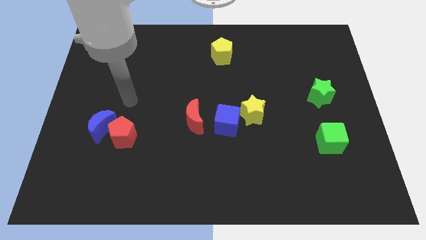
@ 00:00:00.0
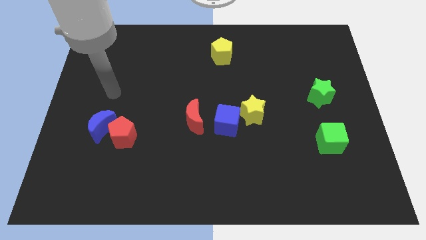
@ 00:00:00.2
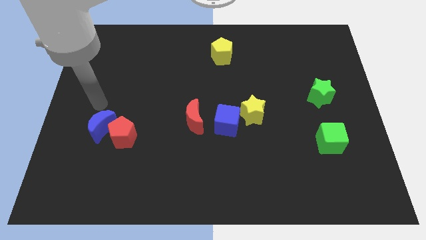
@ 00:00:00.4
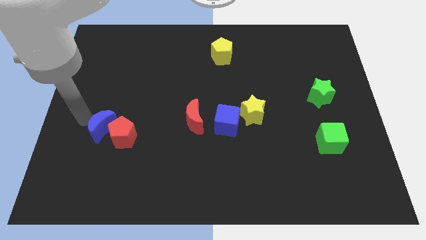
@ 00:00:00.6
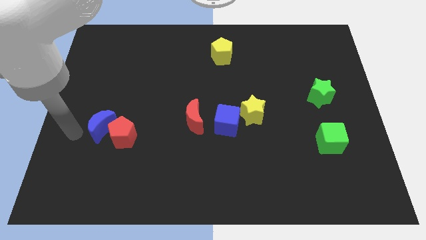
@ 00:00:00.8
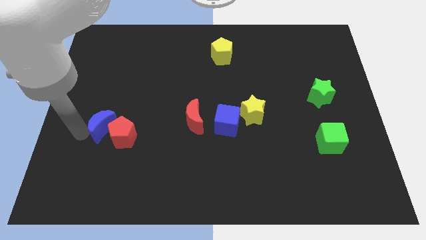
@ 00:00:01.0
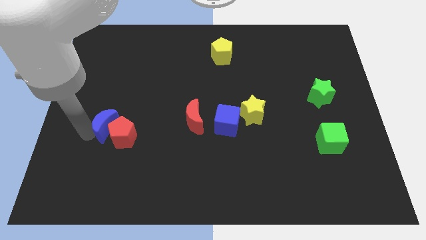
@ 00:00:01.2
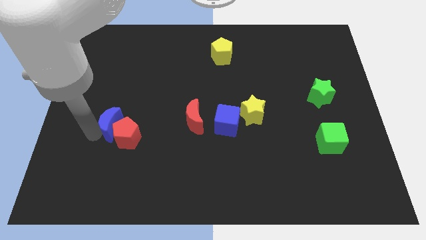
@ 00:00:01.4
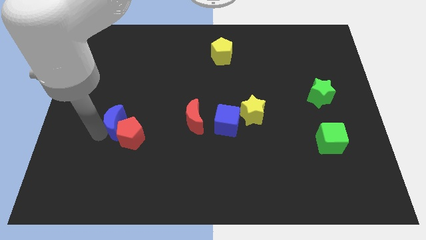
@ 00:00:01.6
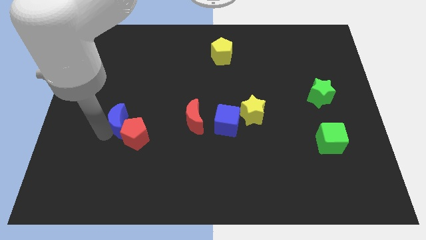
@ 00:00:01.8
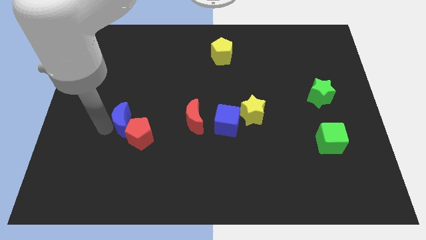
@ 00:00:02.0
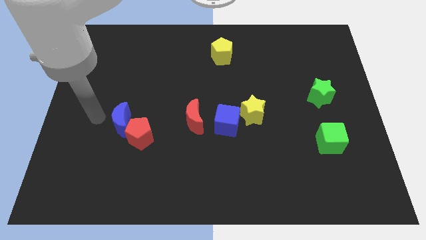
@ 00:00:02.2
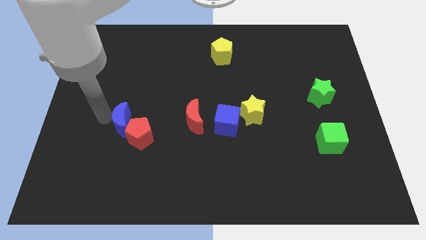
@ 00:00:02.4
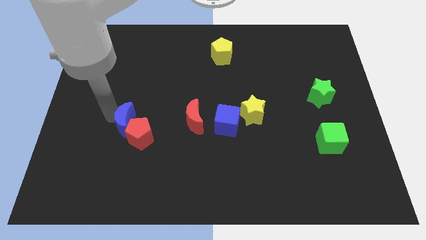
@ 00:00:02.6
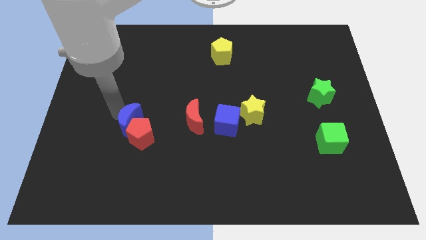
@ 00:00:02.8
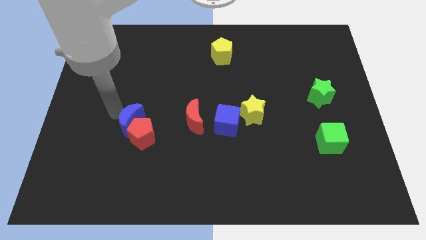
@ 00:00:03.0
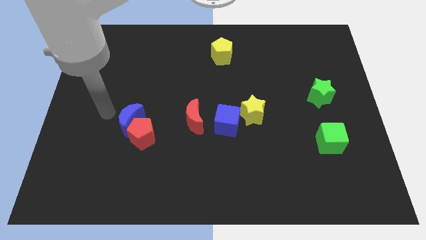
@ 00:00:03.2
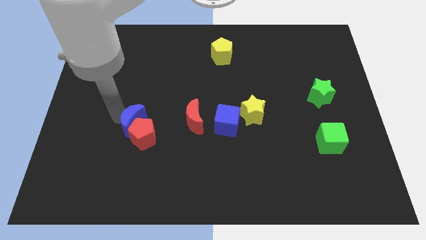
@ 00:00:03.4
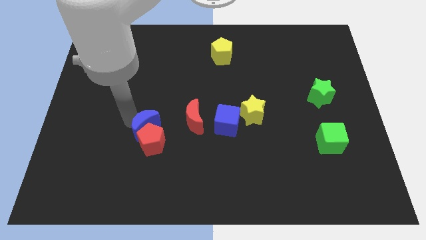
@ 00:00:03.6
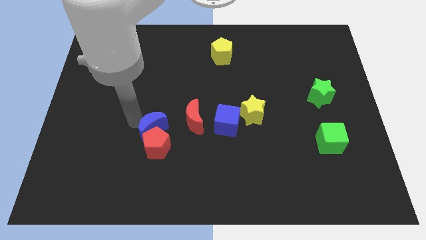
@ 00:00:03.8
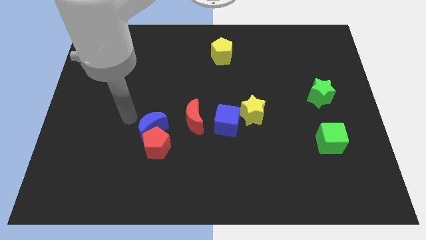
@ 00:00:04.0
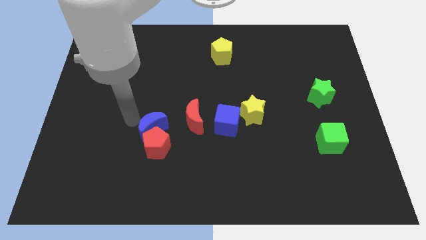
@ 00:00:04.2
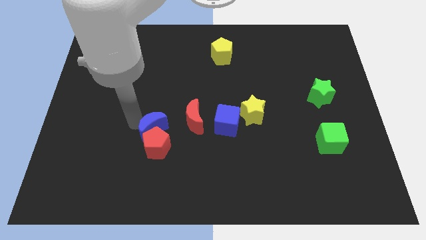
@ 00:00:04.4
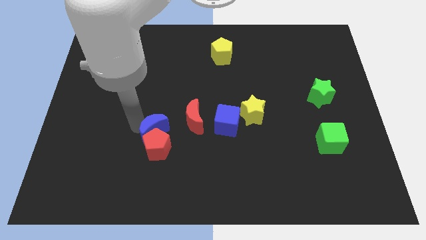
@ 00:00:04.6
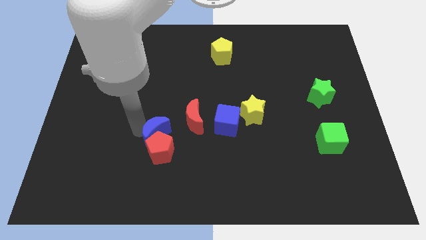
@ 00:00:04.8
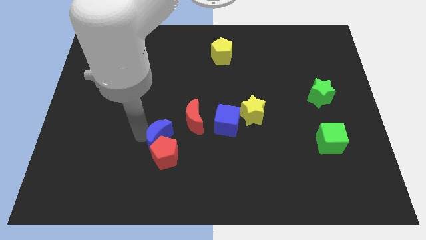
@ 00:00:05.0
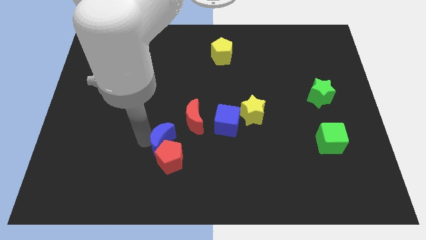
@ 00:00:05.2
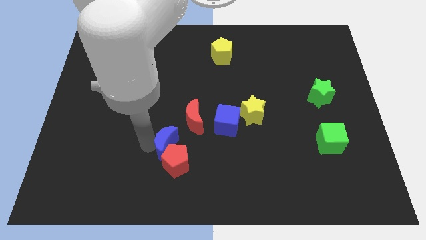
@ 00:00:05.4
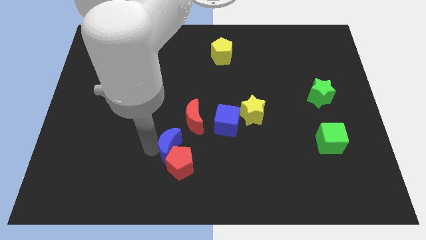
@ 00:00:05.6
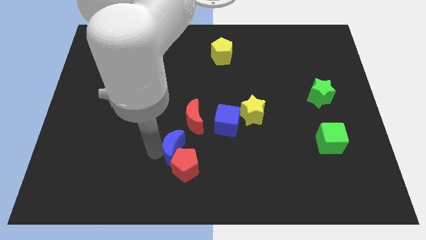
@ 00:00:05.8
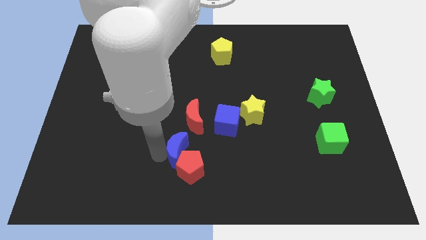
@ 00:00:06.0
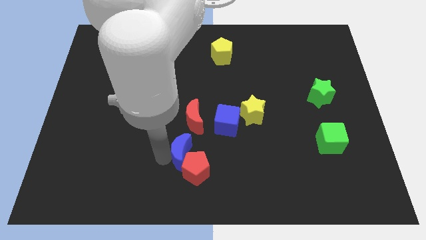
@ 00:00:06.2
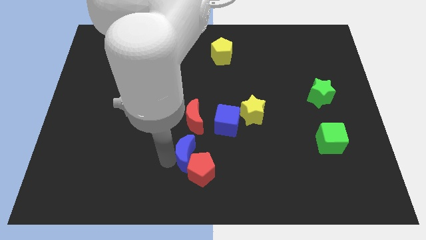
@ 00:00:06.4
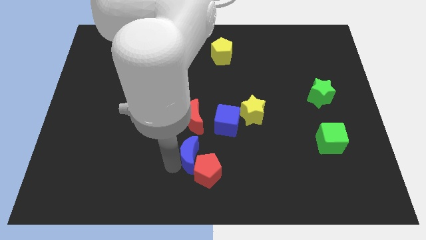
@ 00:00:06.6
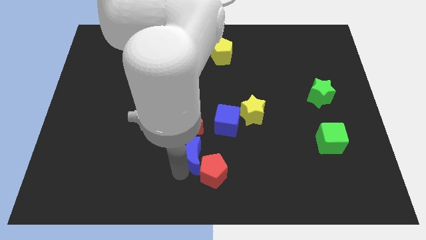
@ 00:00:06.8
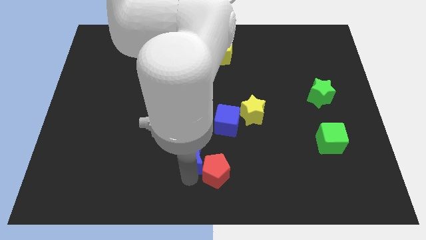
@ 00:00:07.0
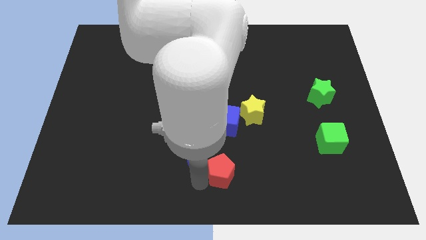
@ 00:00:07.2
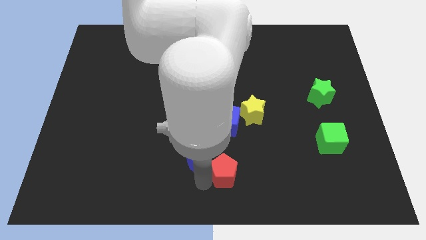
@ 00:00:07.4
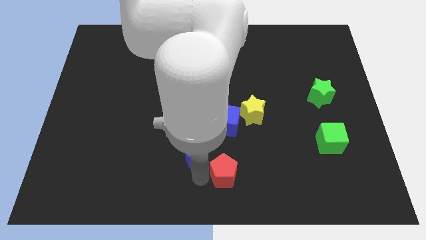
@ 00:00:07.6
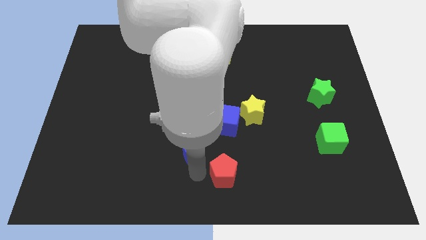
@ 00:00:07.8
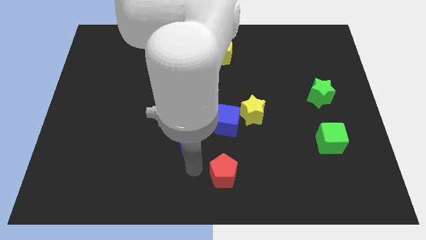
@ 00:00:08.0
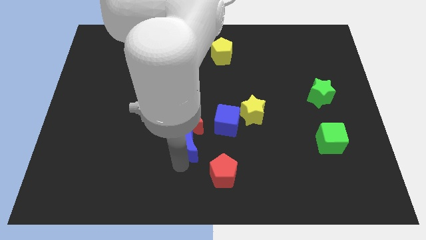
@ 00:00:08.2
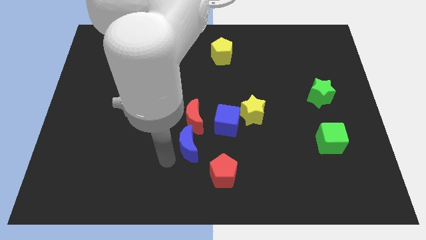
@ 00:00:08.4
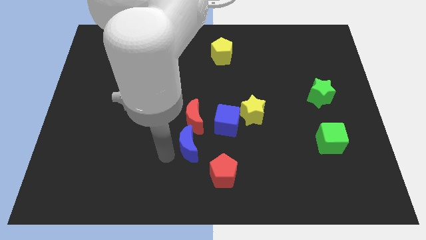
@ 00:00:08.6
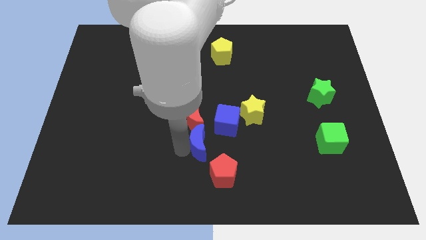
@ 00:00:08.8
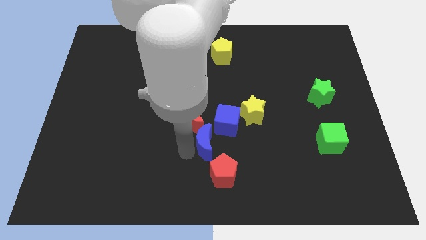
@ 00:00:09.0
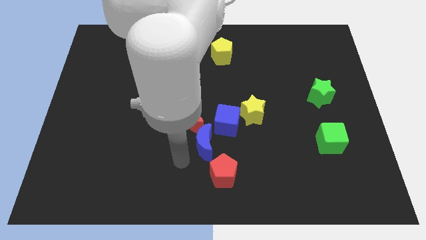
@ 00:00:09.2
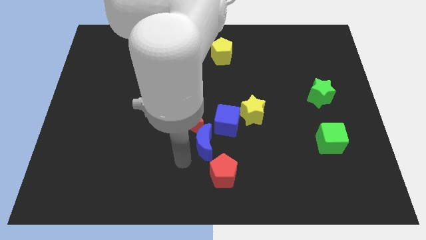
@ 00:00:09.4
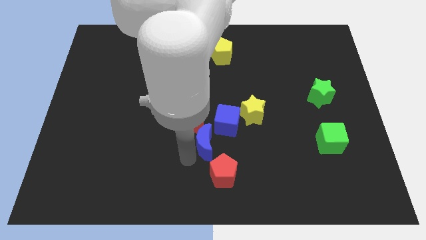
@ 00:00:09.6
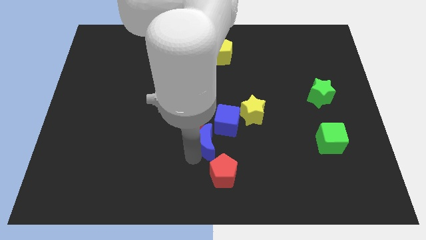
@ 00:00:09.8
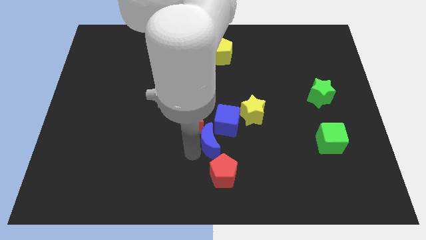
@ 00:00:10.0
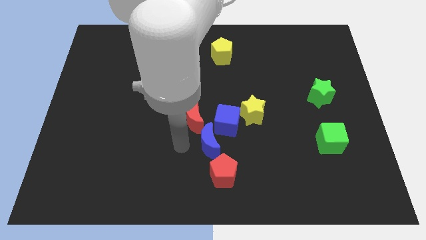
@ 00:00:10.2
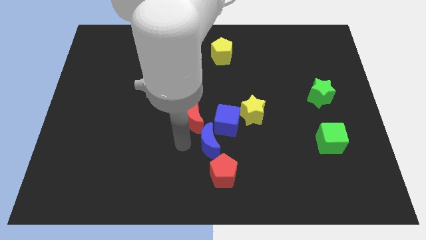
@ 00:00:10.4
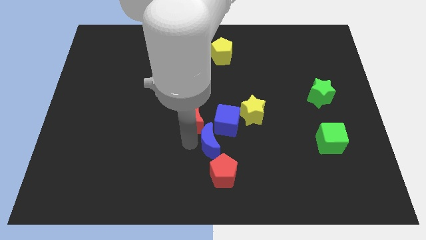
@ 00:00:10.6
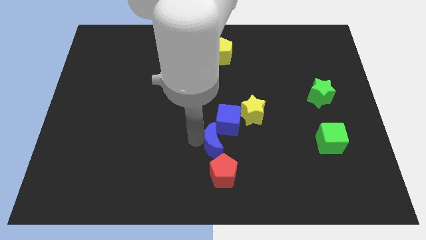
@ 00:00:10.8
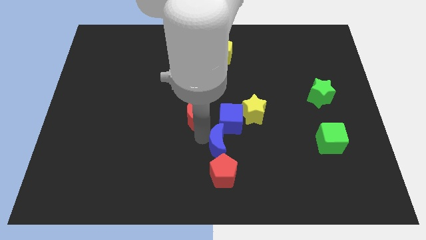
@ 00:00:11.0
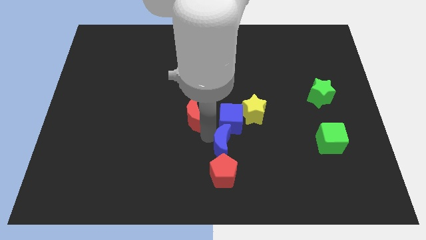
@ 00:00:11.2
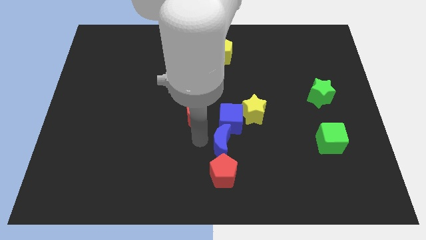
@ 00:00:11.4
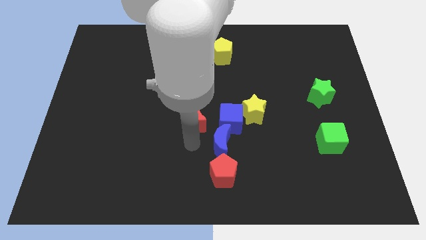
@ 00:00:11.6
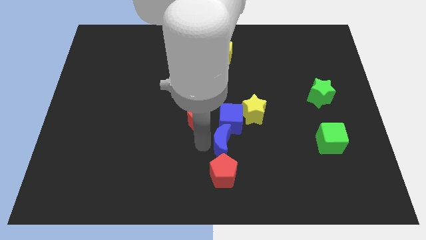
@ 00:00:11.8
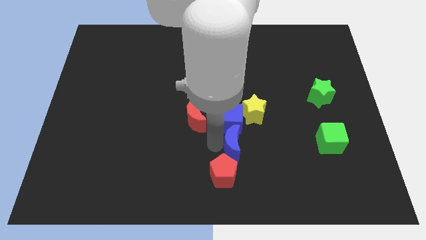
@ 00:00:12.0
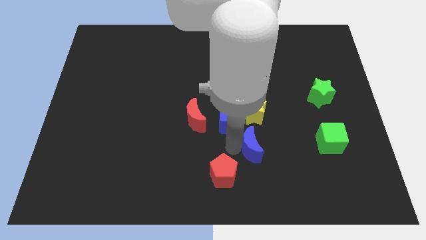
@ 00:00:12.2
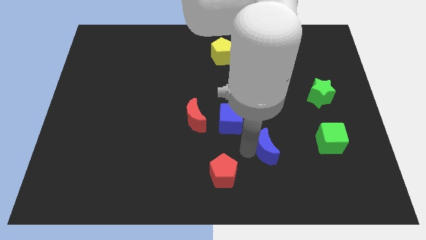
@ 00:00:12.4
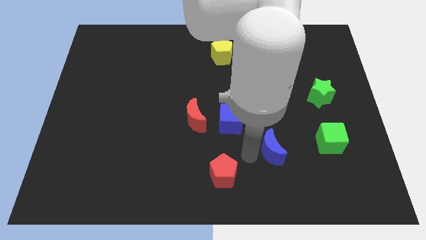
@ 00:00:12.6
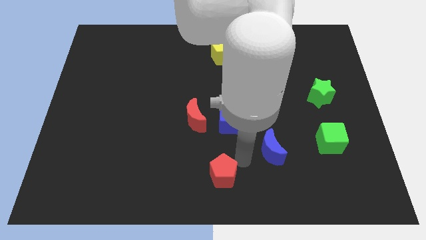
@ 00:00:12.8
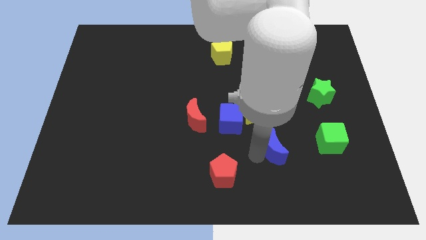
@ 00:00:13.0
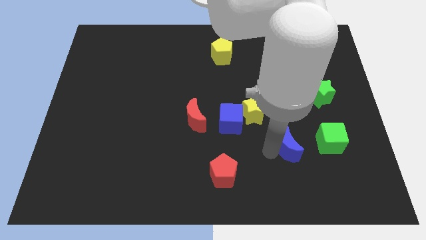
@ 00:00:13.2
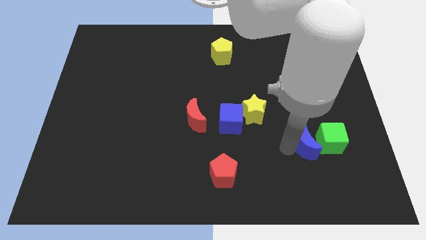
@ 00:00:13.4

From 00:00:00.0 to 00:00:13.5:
push the blue moon close to the green cube
